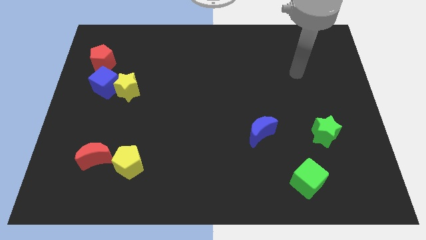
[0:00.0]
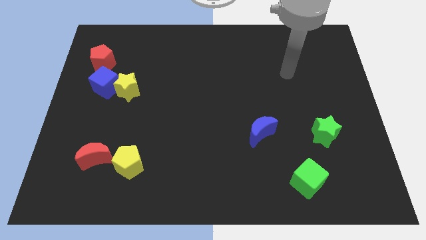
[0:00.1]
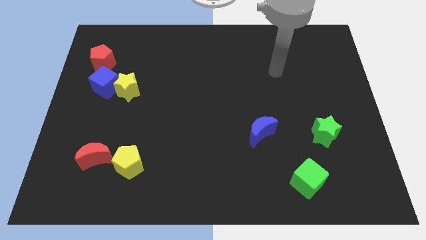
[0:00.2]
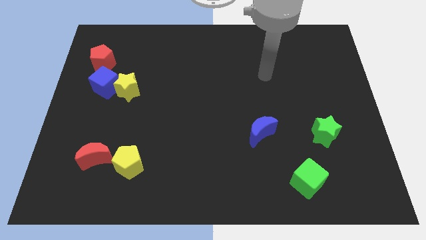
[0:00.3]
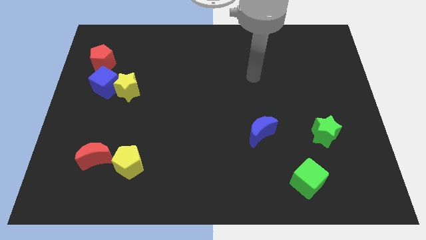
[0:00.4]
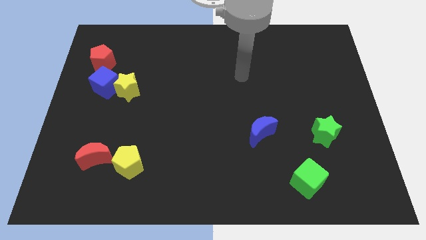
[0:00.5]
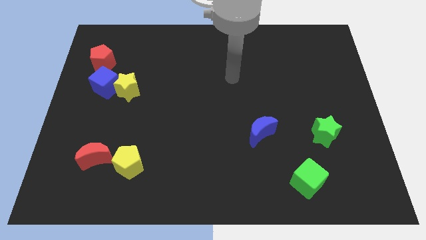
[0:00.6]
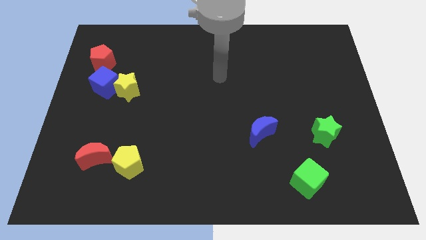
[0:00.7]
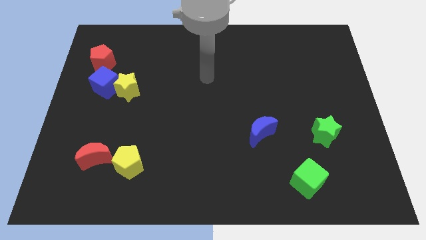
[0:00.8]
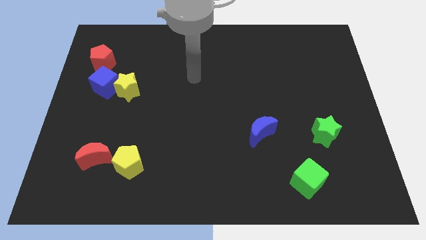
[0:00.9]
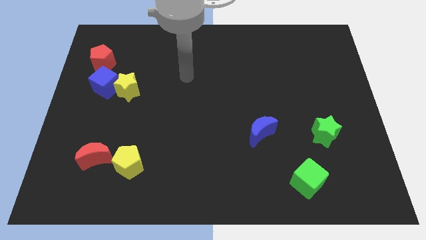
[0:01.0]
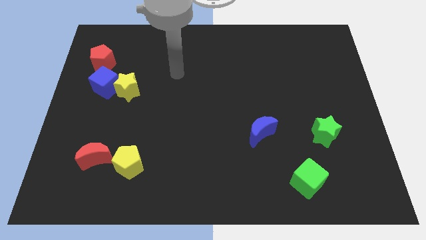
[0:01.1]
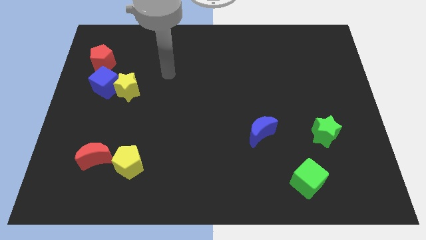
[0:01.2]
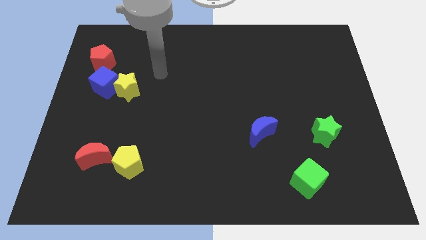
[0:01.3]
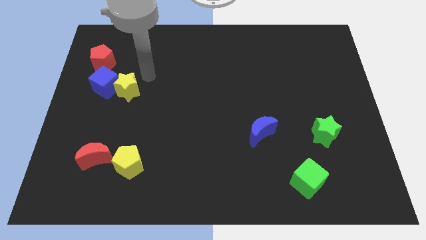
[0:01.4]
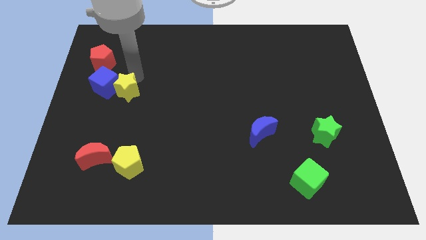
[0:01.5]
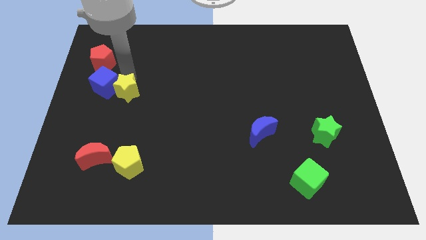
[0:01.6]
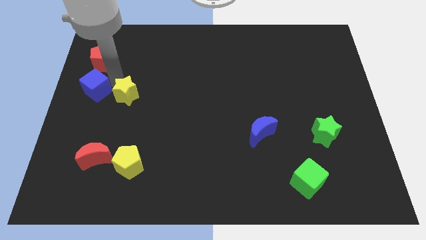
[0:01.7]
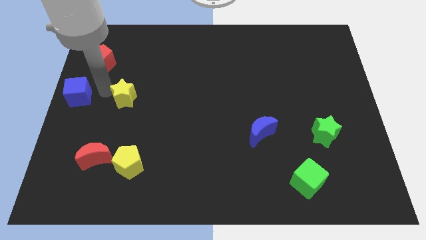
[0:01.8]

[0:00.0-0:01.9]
separate the yellow star from the blue cube

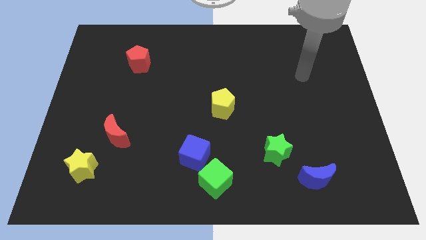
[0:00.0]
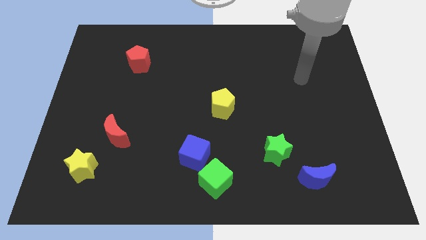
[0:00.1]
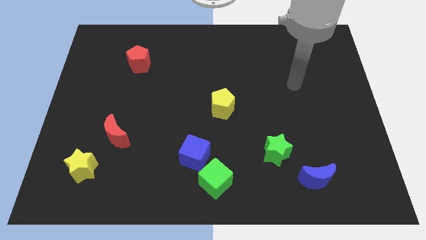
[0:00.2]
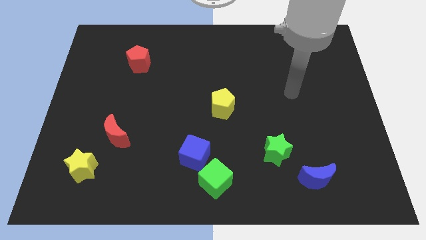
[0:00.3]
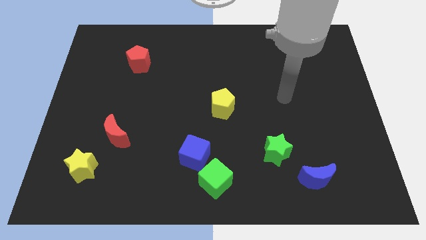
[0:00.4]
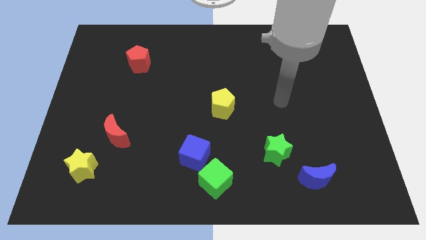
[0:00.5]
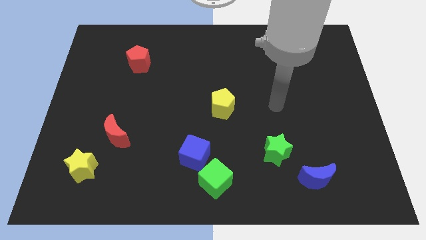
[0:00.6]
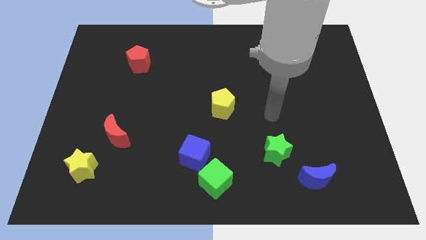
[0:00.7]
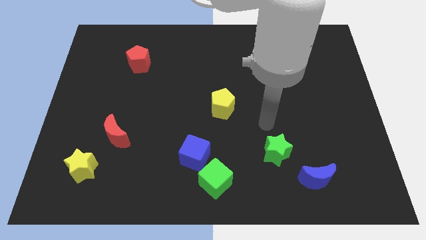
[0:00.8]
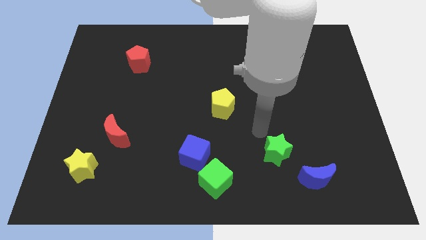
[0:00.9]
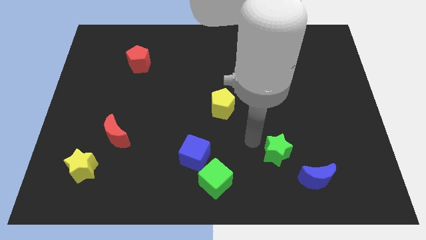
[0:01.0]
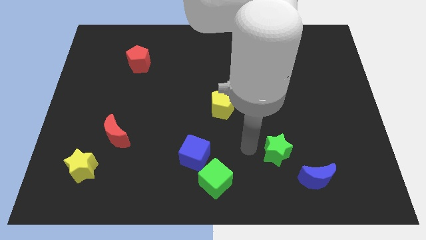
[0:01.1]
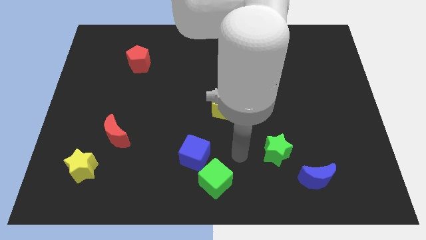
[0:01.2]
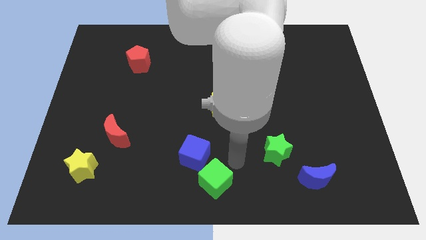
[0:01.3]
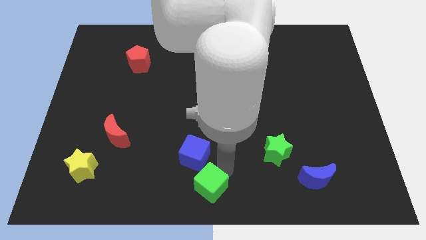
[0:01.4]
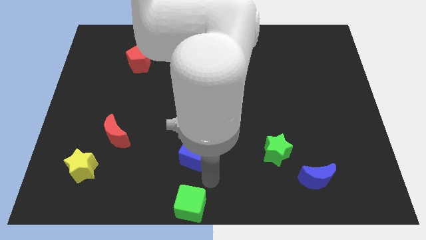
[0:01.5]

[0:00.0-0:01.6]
separate the blue cube from the green cube

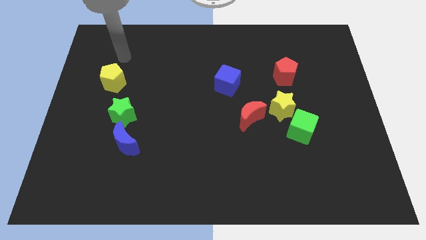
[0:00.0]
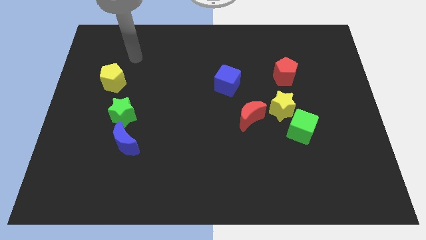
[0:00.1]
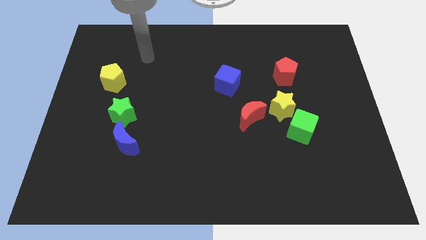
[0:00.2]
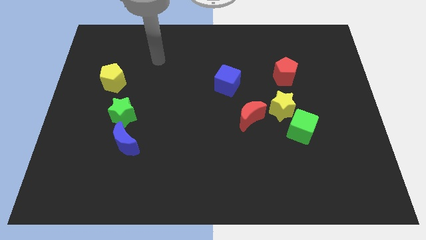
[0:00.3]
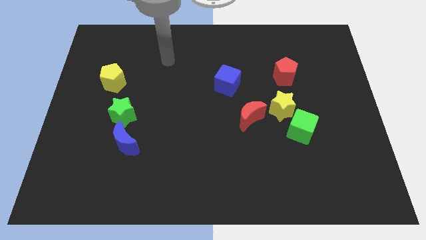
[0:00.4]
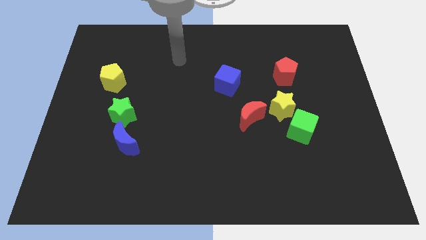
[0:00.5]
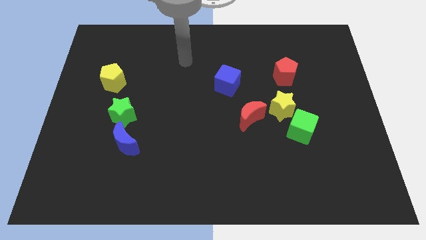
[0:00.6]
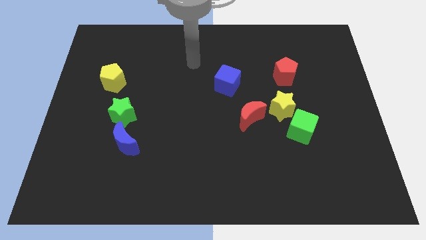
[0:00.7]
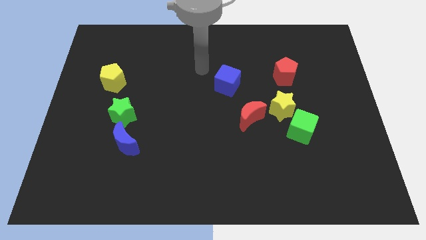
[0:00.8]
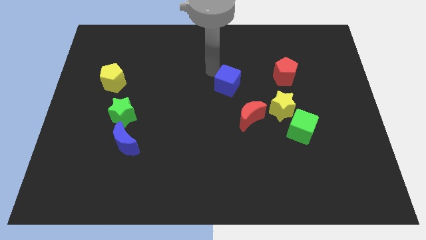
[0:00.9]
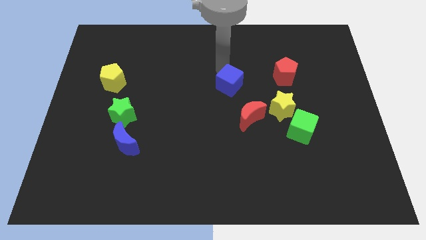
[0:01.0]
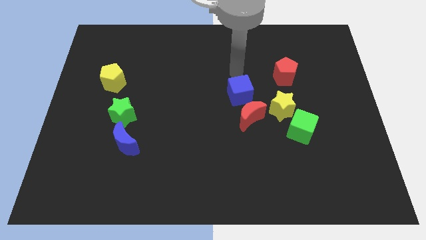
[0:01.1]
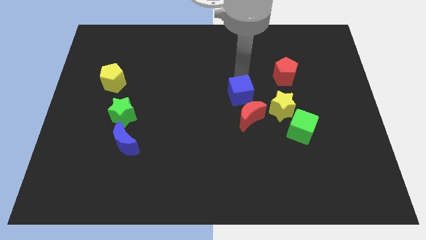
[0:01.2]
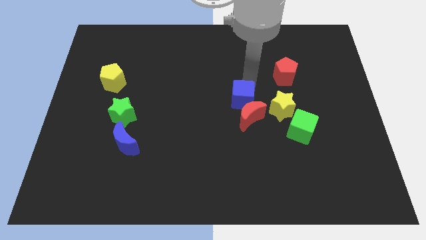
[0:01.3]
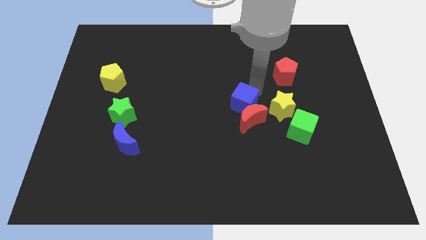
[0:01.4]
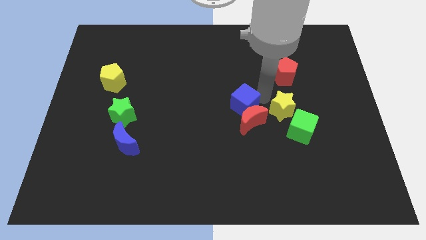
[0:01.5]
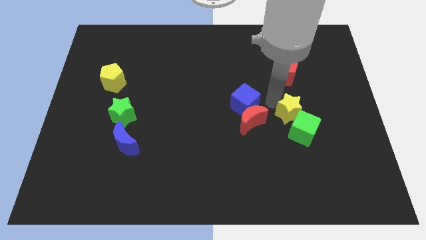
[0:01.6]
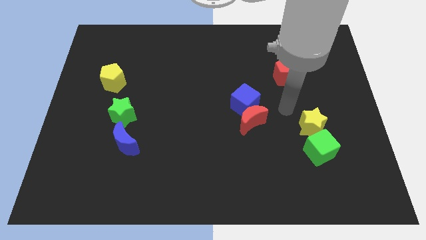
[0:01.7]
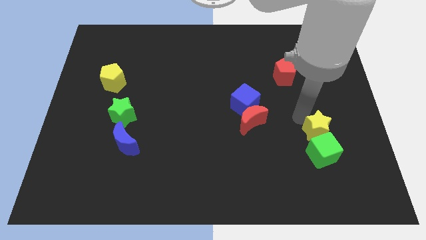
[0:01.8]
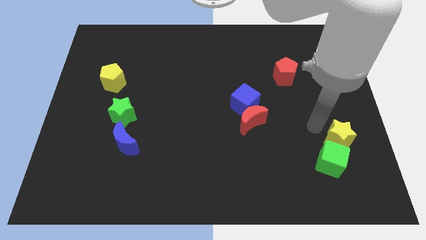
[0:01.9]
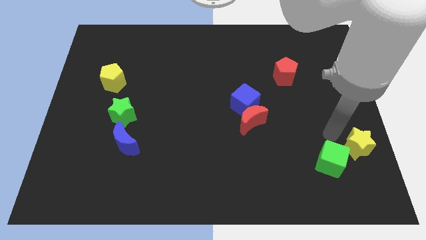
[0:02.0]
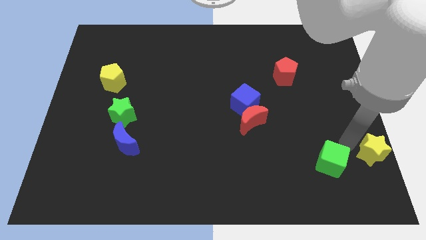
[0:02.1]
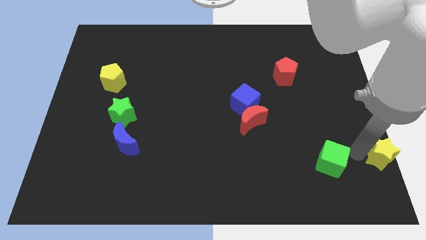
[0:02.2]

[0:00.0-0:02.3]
move the green cube away from the yellow star

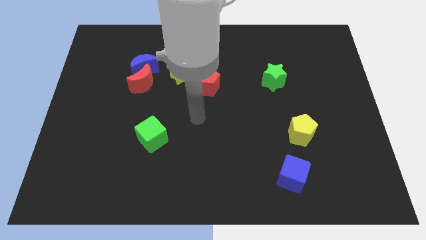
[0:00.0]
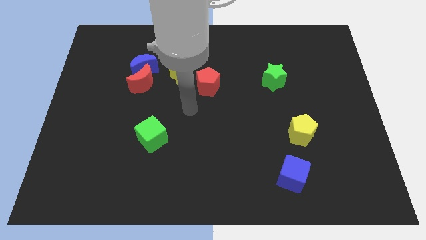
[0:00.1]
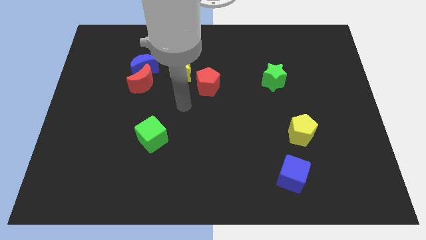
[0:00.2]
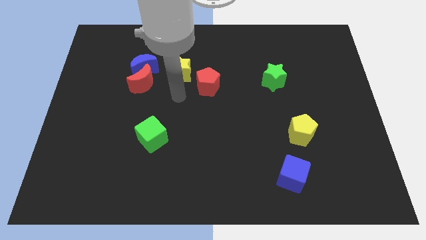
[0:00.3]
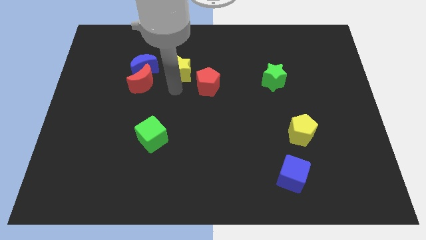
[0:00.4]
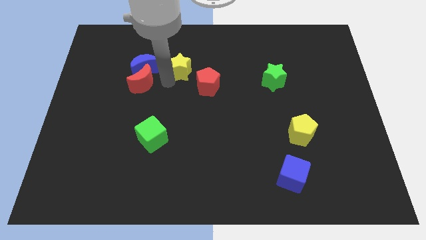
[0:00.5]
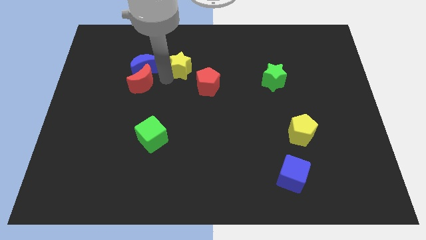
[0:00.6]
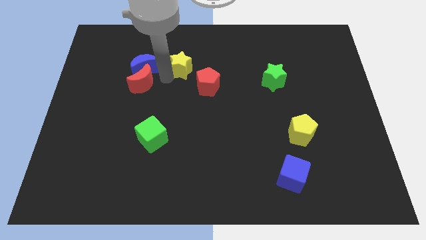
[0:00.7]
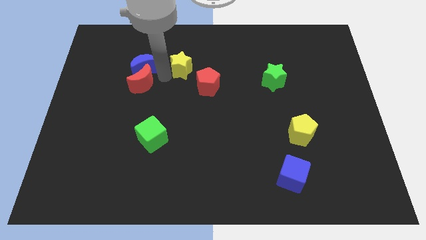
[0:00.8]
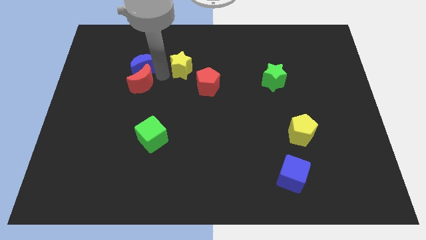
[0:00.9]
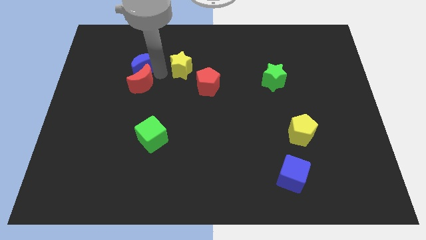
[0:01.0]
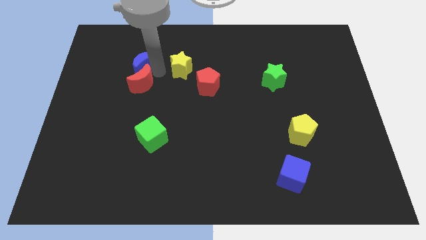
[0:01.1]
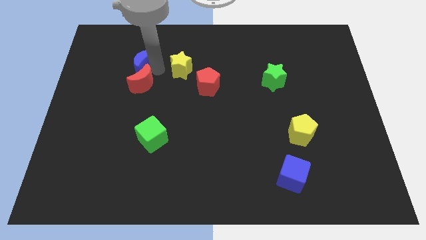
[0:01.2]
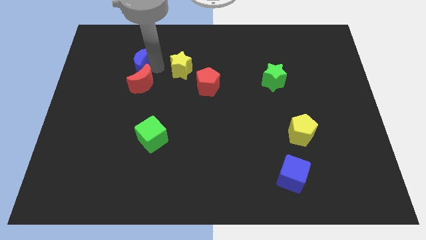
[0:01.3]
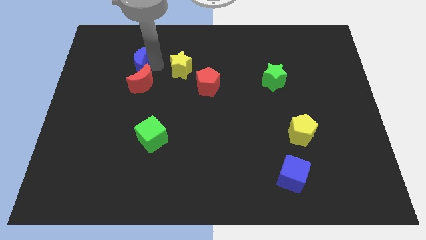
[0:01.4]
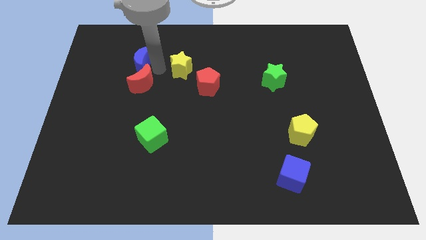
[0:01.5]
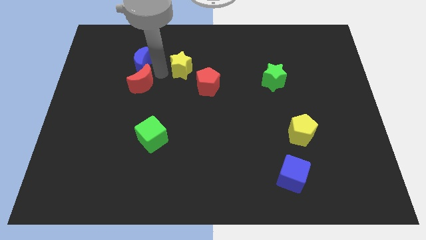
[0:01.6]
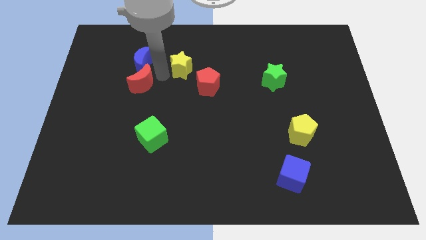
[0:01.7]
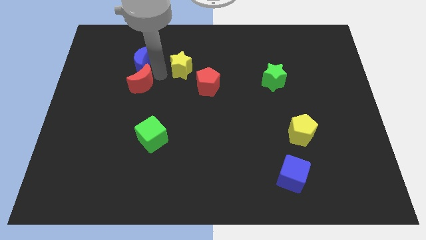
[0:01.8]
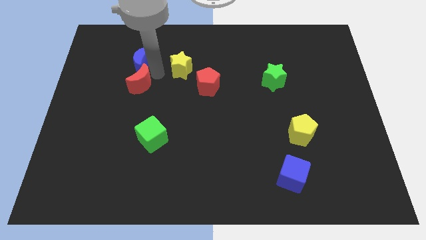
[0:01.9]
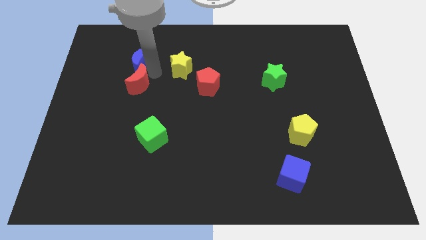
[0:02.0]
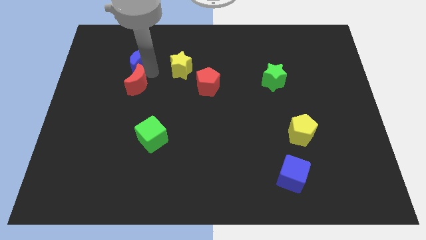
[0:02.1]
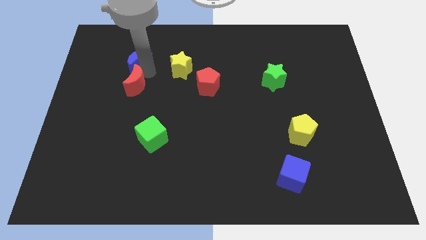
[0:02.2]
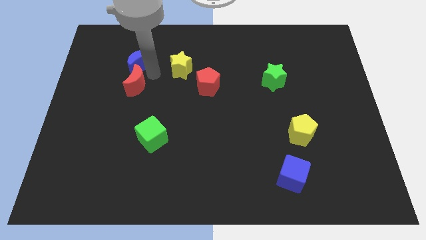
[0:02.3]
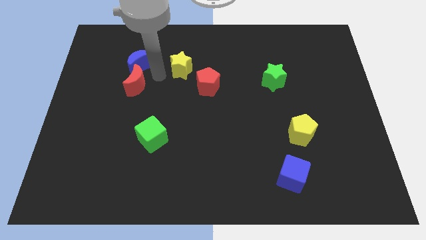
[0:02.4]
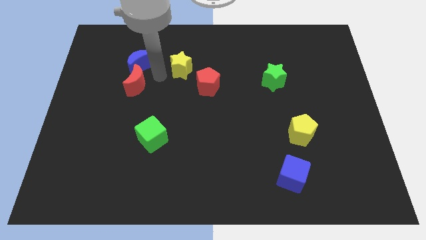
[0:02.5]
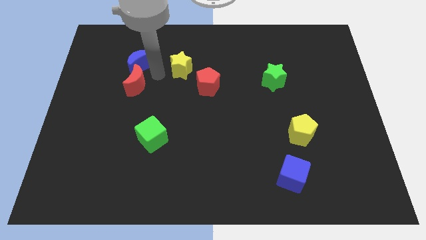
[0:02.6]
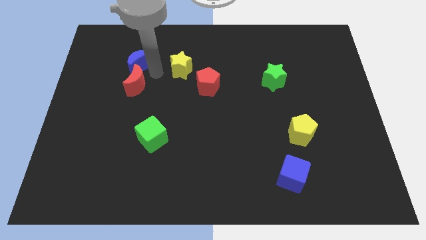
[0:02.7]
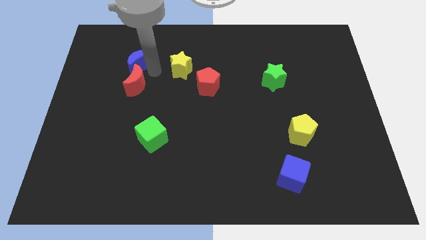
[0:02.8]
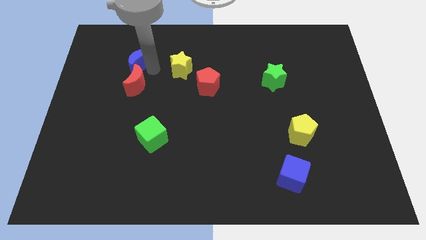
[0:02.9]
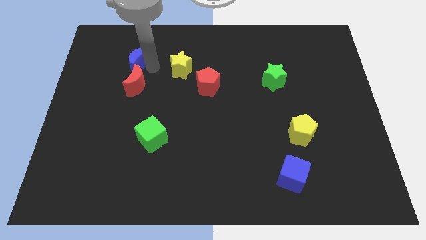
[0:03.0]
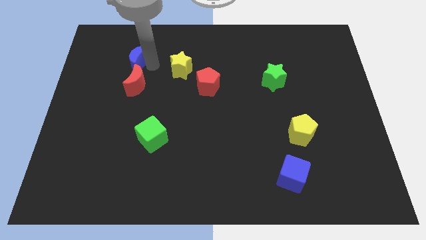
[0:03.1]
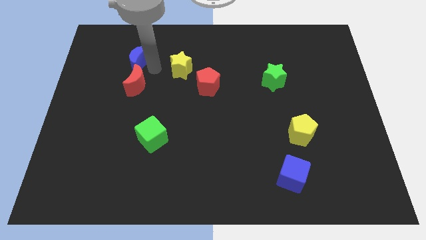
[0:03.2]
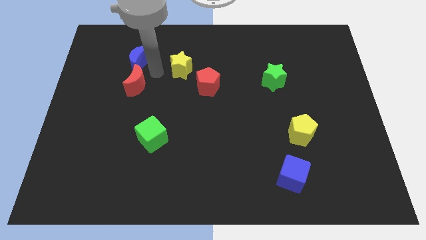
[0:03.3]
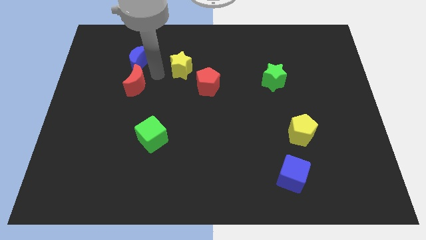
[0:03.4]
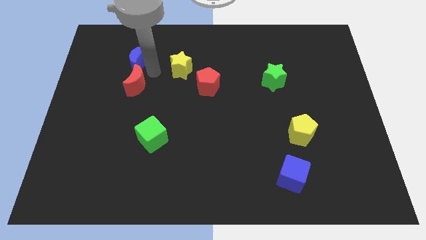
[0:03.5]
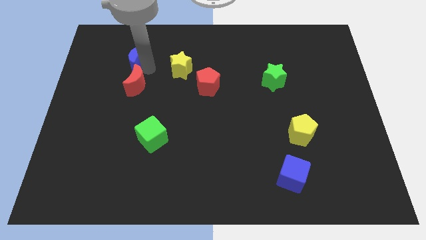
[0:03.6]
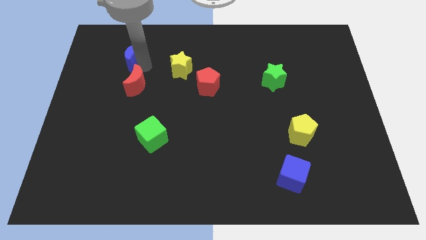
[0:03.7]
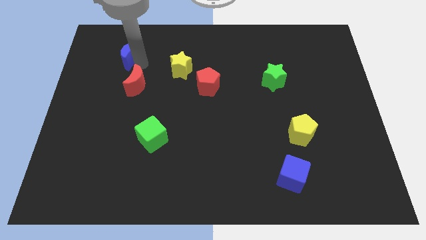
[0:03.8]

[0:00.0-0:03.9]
separate the blue moon from the red moon and yellow star
